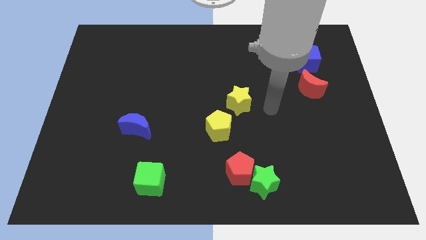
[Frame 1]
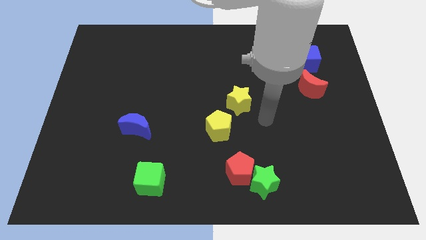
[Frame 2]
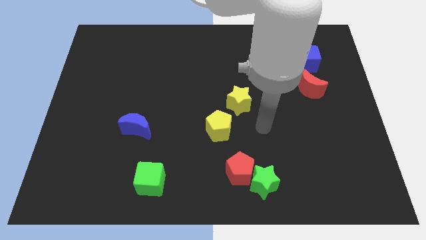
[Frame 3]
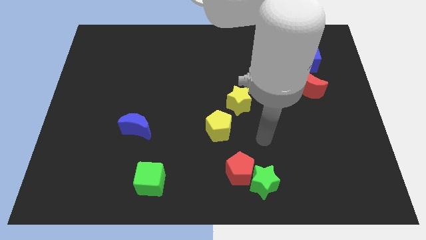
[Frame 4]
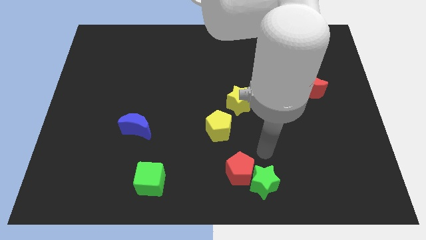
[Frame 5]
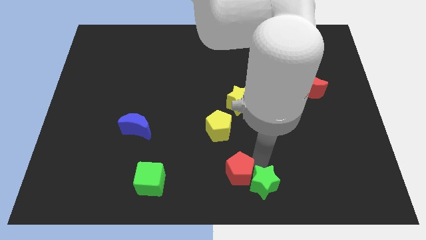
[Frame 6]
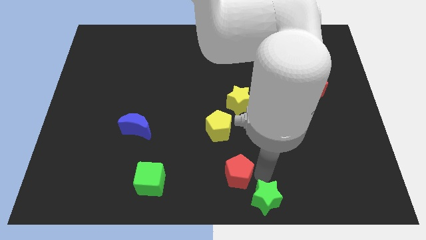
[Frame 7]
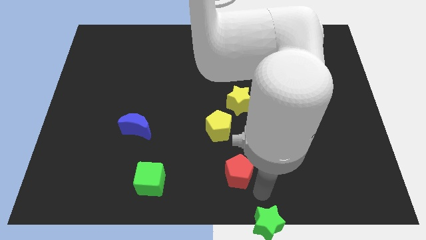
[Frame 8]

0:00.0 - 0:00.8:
pull the red pentagon apart from the green star

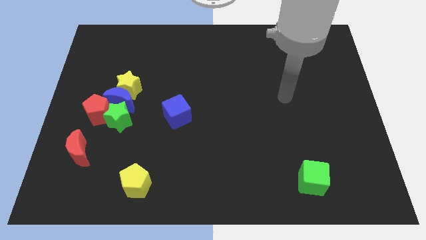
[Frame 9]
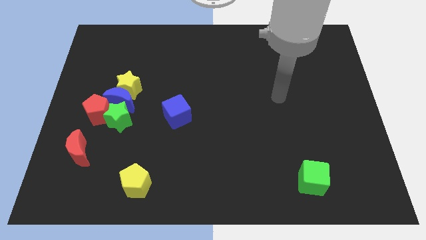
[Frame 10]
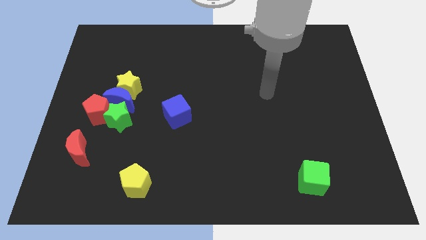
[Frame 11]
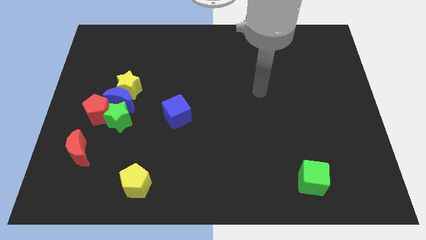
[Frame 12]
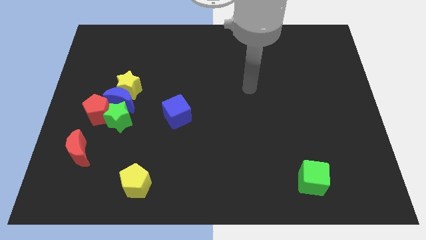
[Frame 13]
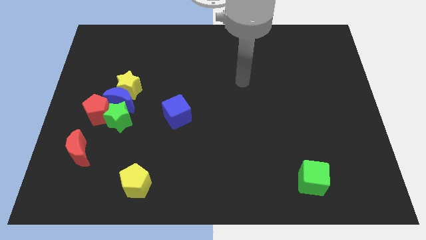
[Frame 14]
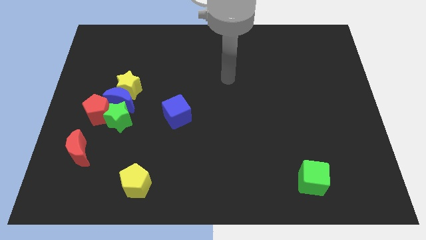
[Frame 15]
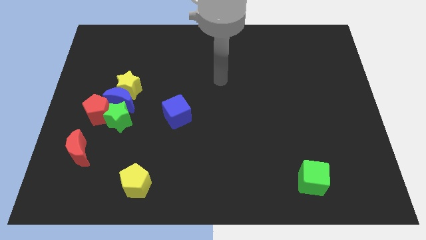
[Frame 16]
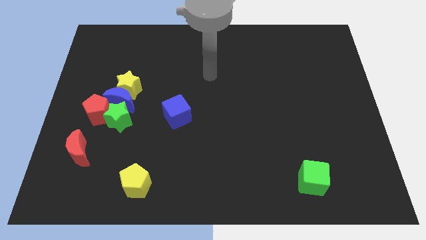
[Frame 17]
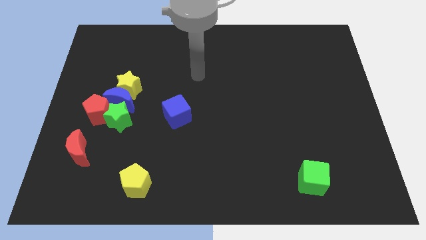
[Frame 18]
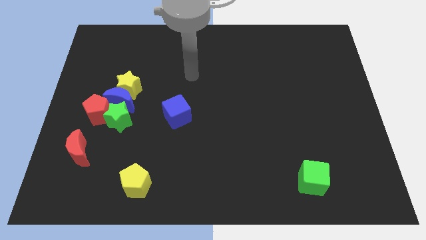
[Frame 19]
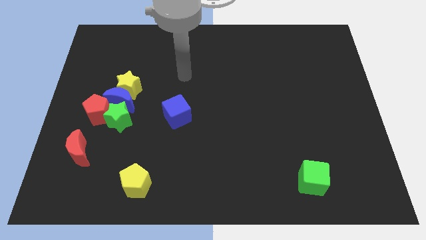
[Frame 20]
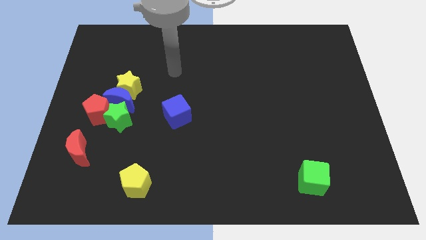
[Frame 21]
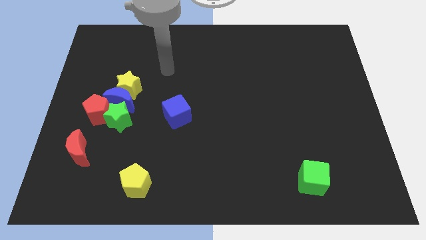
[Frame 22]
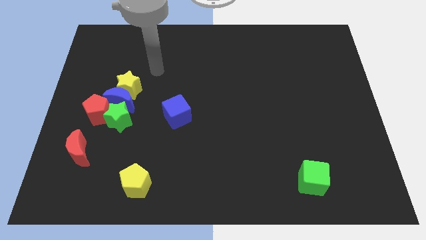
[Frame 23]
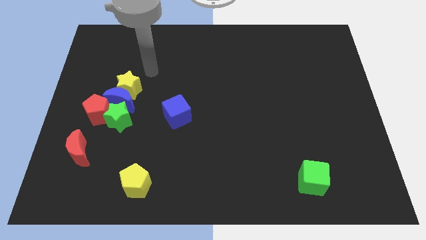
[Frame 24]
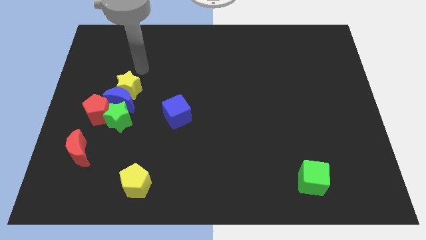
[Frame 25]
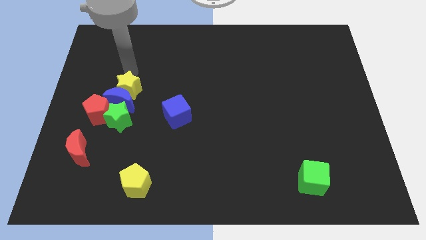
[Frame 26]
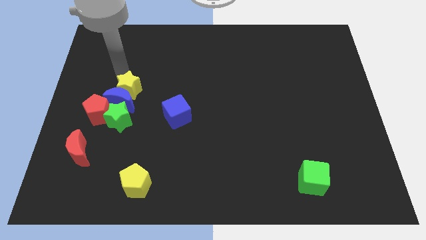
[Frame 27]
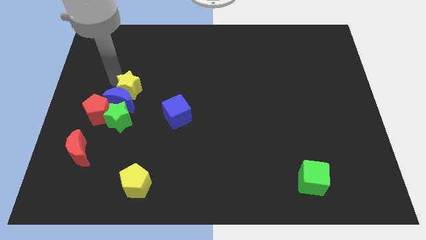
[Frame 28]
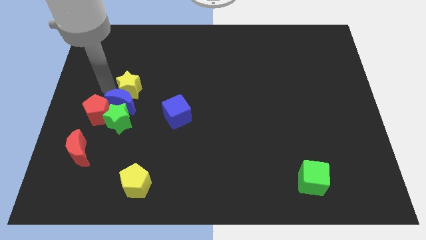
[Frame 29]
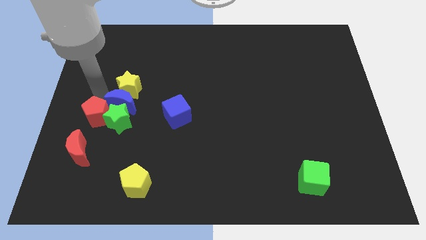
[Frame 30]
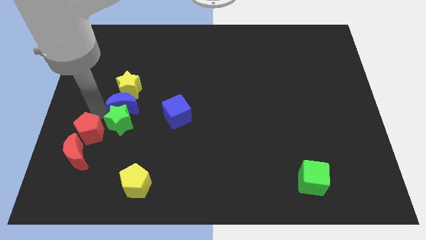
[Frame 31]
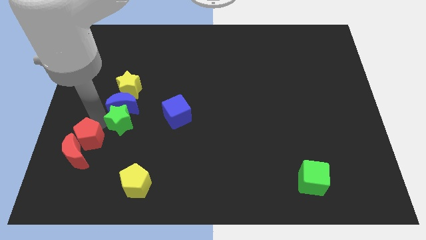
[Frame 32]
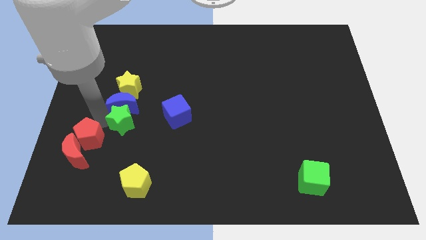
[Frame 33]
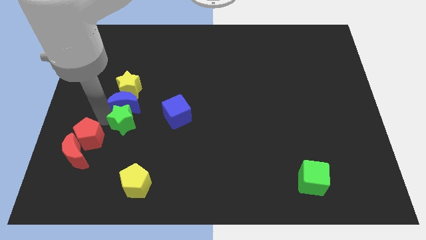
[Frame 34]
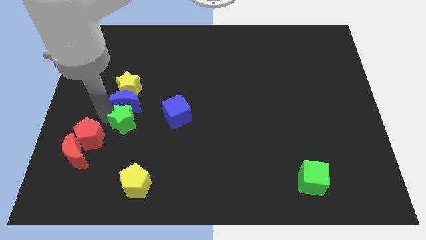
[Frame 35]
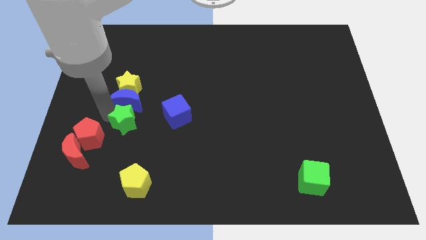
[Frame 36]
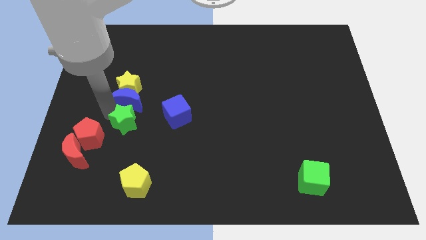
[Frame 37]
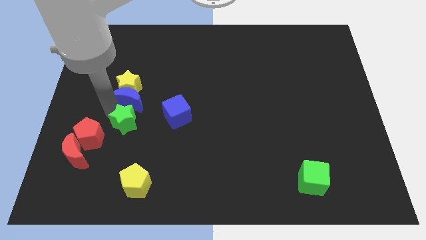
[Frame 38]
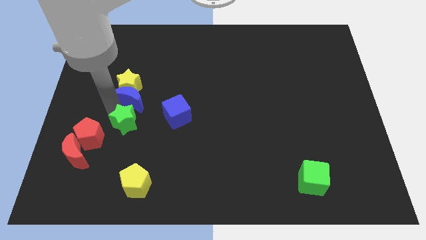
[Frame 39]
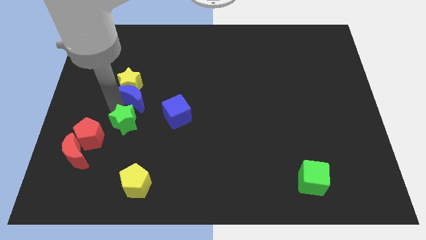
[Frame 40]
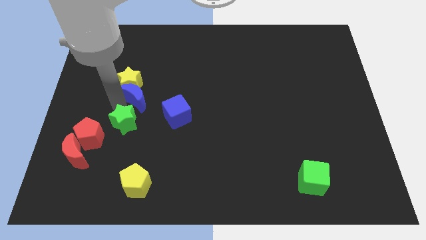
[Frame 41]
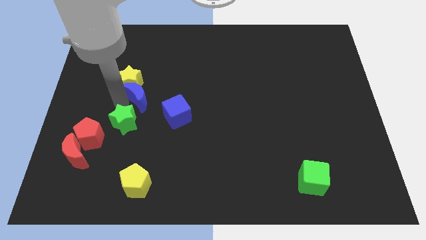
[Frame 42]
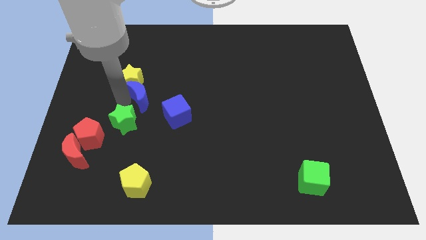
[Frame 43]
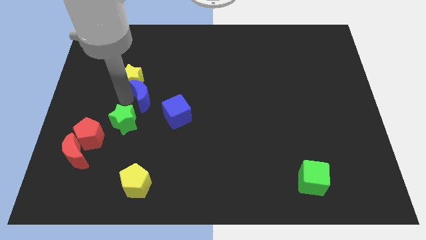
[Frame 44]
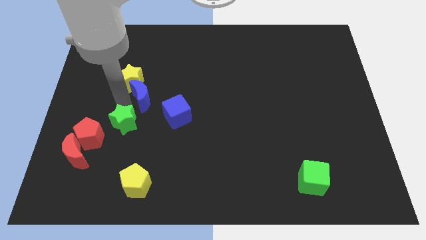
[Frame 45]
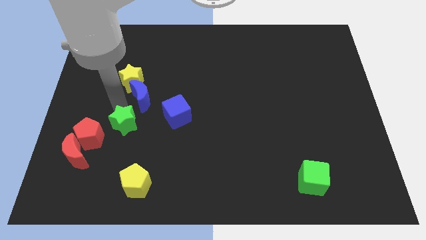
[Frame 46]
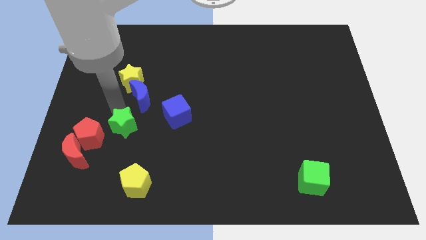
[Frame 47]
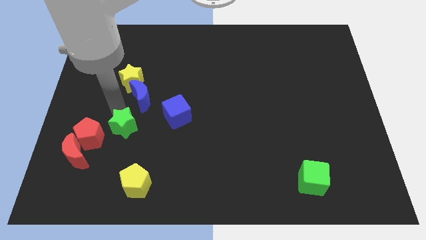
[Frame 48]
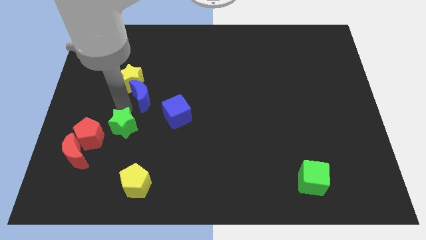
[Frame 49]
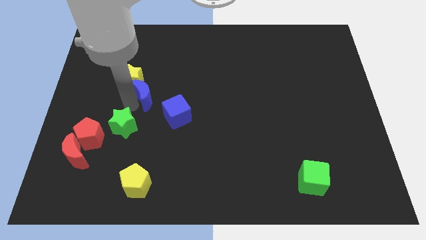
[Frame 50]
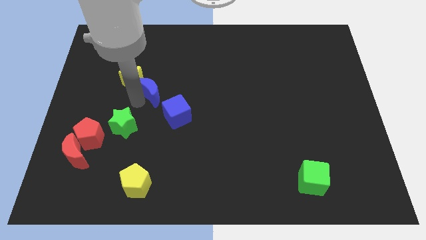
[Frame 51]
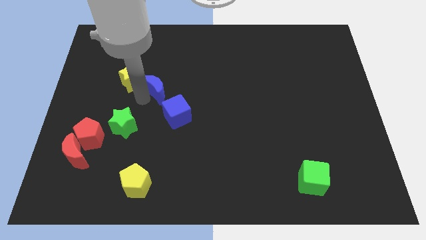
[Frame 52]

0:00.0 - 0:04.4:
pull the blue moon apart from the yellow star, green star, and red pentagon

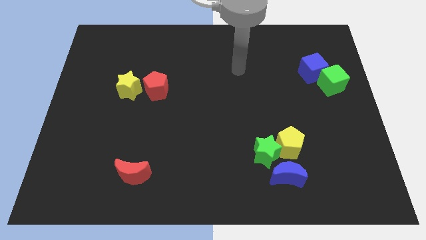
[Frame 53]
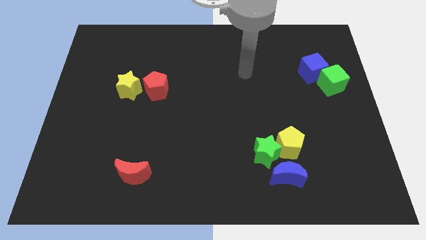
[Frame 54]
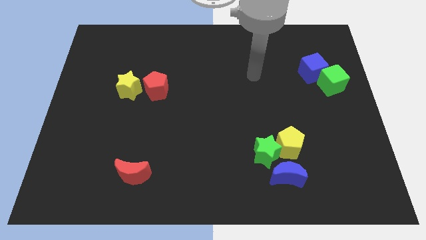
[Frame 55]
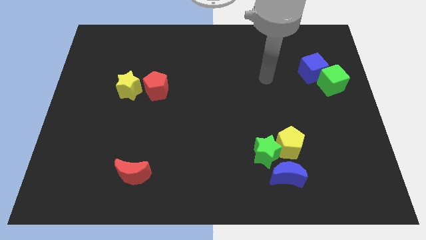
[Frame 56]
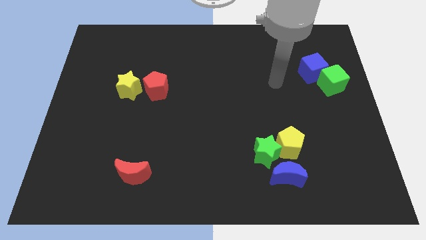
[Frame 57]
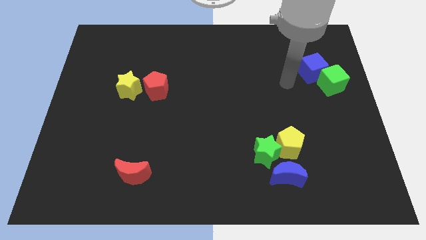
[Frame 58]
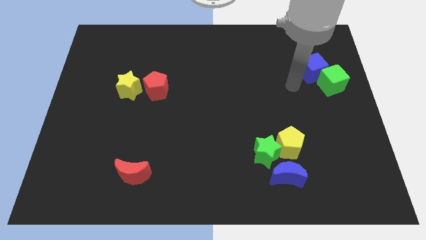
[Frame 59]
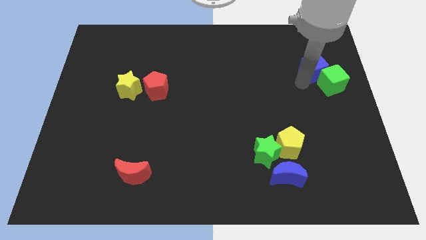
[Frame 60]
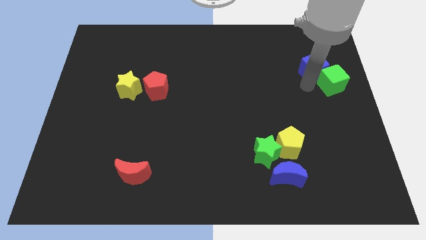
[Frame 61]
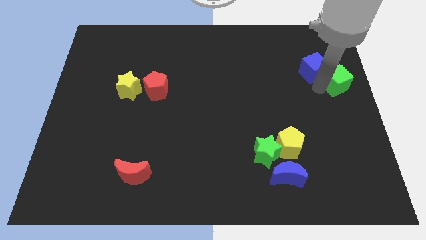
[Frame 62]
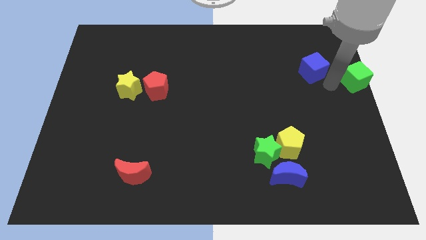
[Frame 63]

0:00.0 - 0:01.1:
pull the blue cube apart from the green cube

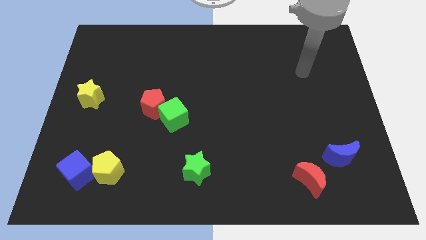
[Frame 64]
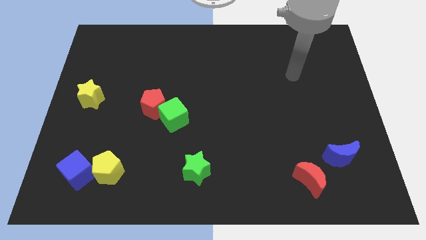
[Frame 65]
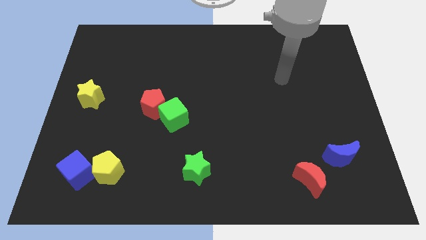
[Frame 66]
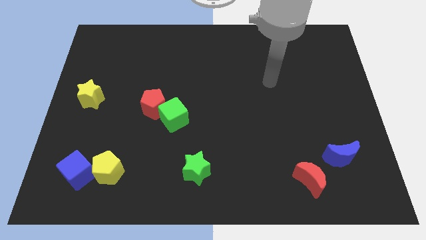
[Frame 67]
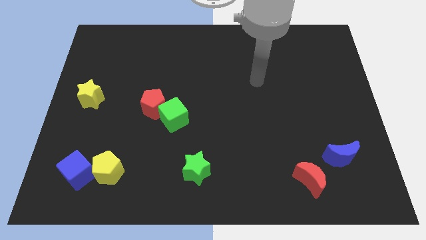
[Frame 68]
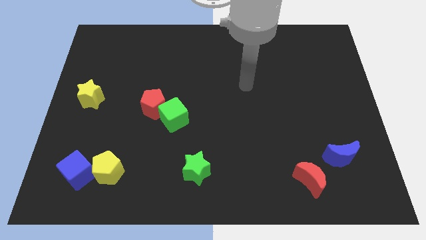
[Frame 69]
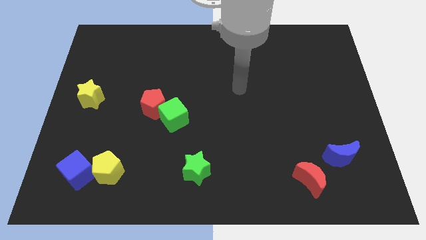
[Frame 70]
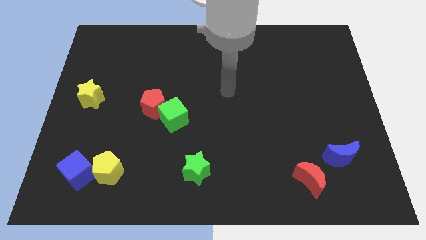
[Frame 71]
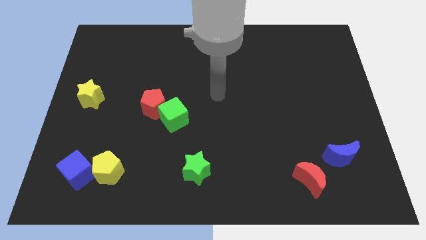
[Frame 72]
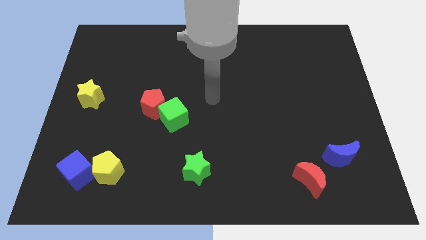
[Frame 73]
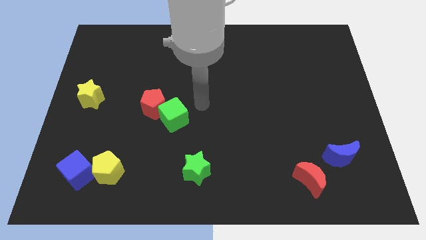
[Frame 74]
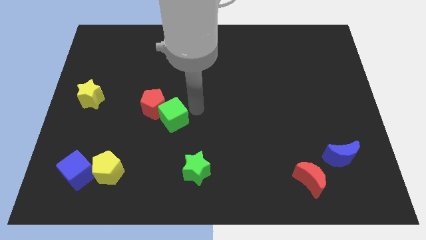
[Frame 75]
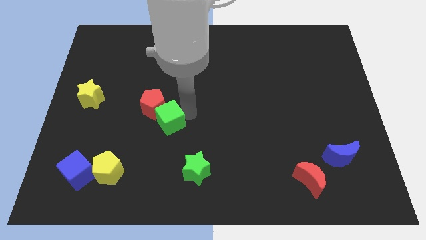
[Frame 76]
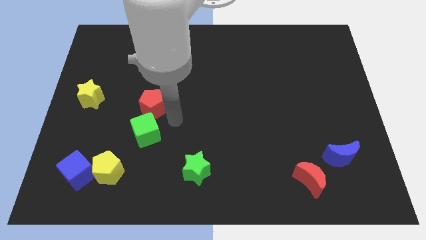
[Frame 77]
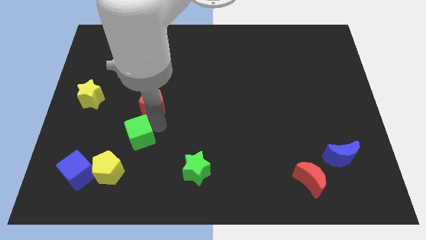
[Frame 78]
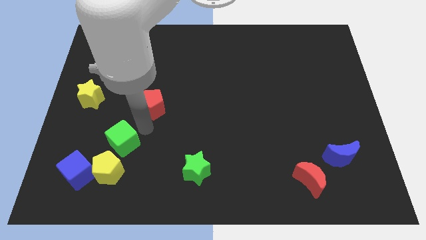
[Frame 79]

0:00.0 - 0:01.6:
separate the red pentagon from the green cube

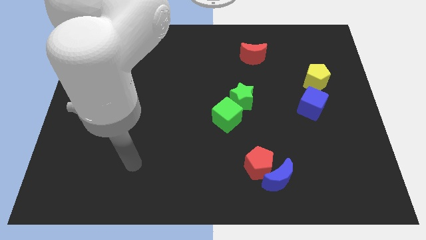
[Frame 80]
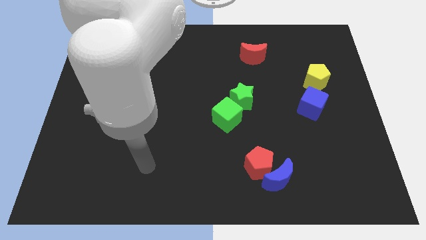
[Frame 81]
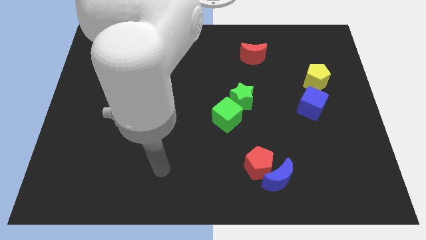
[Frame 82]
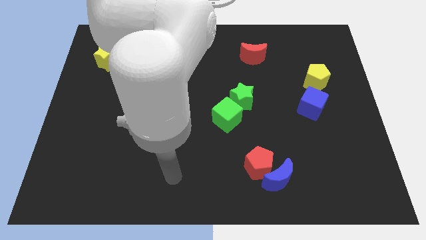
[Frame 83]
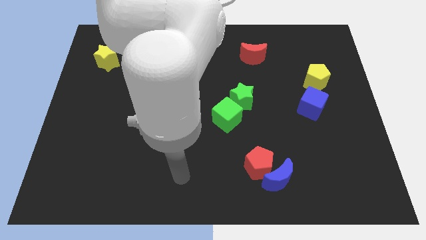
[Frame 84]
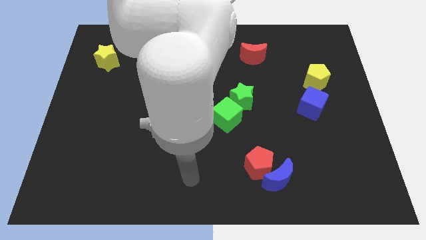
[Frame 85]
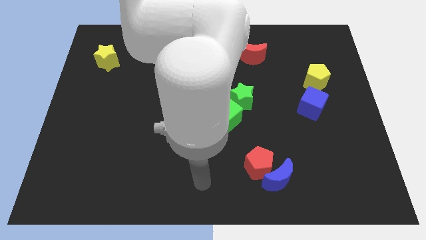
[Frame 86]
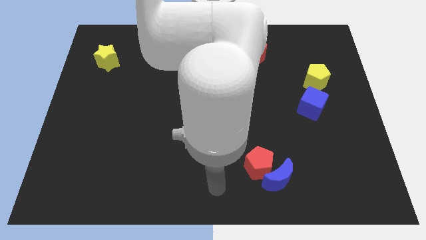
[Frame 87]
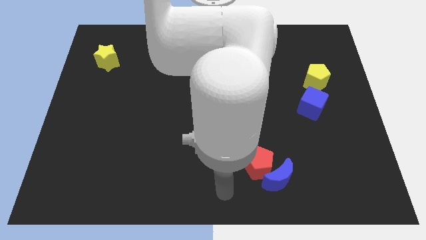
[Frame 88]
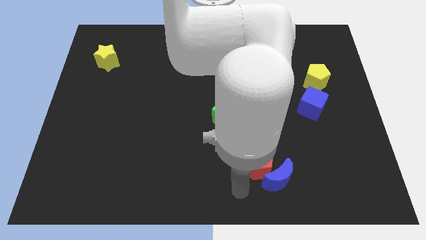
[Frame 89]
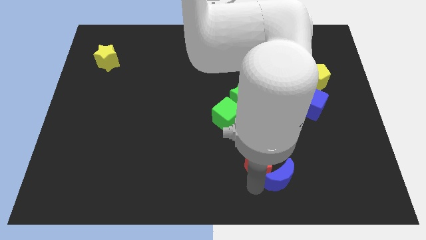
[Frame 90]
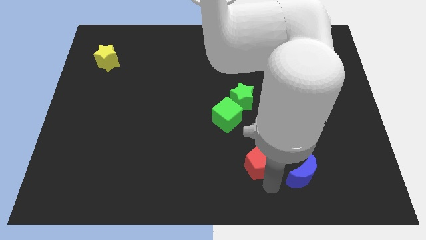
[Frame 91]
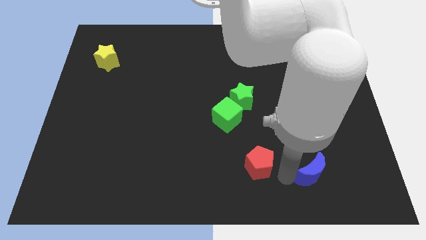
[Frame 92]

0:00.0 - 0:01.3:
move the red pentagon away from the blue moon
